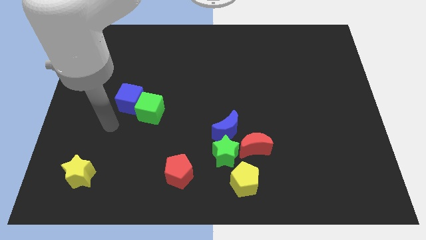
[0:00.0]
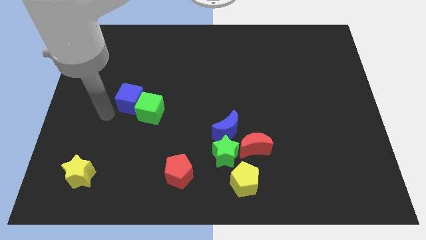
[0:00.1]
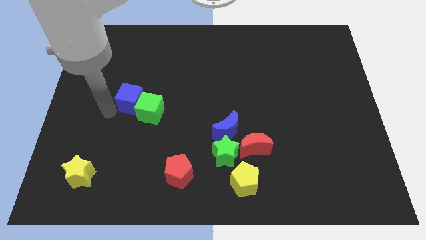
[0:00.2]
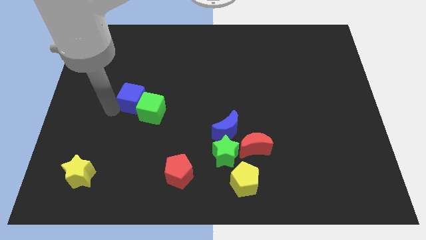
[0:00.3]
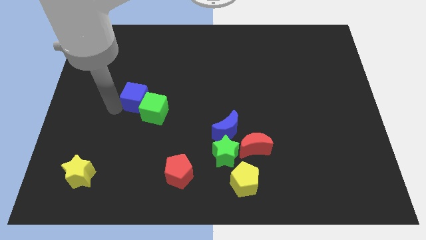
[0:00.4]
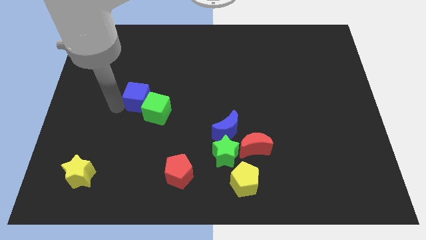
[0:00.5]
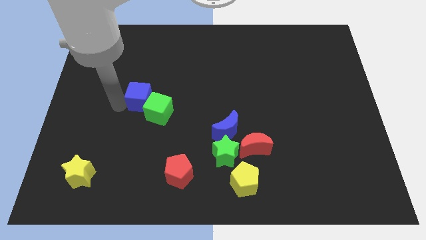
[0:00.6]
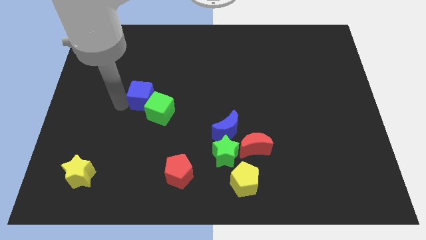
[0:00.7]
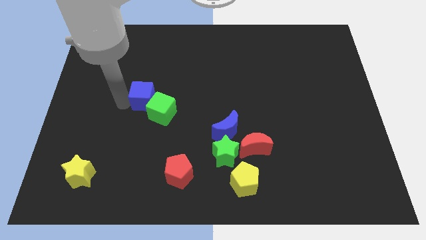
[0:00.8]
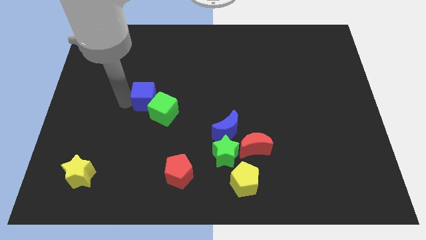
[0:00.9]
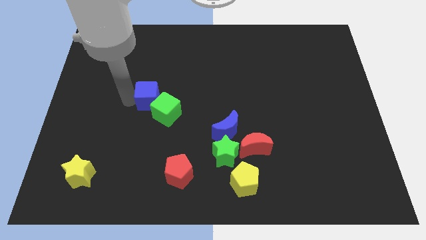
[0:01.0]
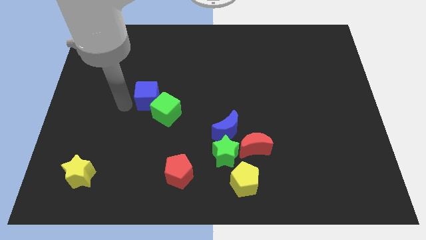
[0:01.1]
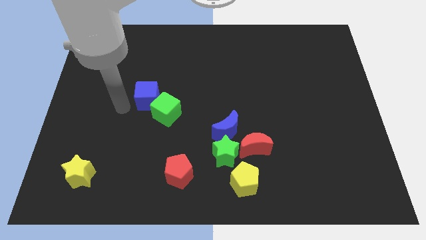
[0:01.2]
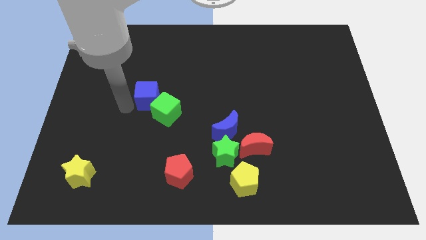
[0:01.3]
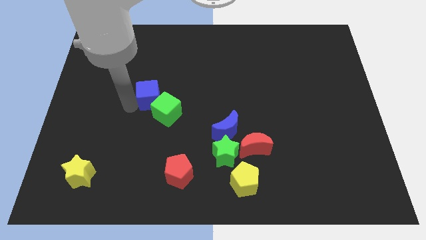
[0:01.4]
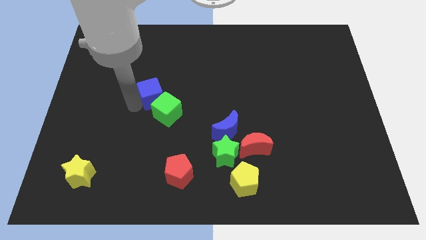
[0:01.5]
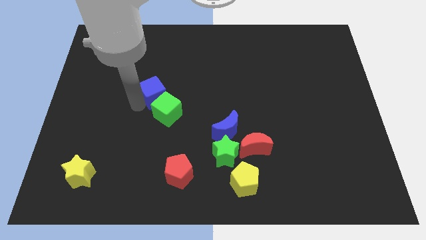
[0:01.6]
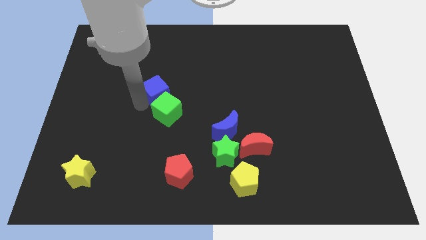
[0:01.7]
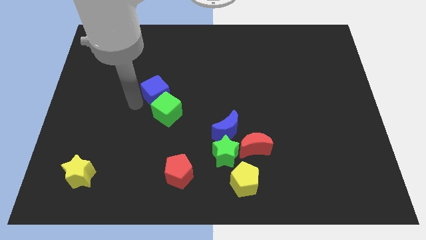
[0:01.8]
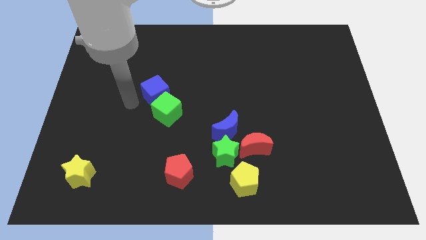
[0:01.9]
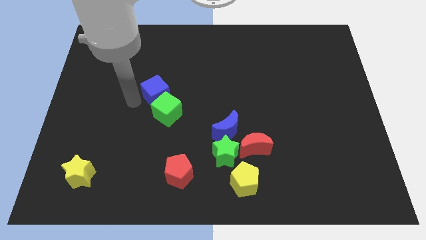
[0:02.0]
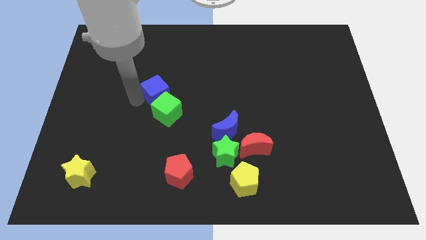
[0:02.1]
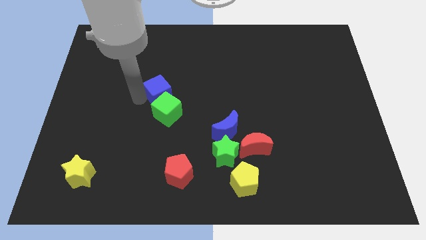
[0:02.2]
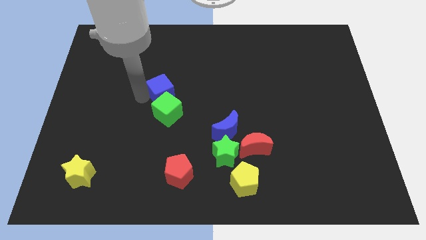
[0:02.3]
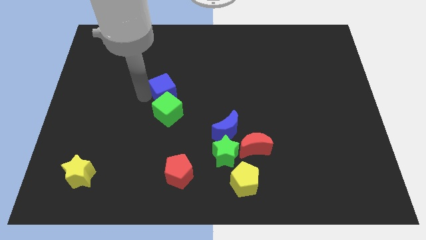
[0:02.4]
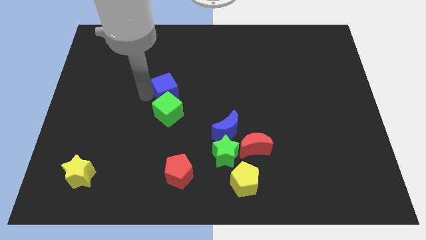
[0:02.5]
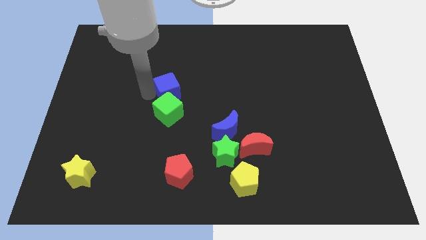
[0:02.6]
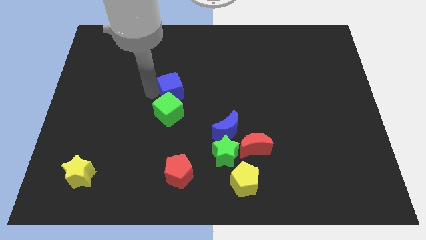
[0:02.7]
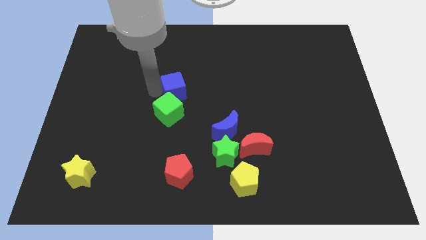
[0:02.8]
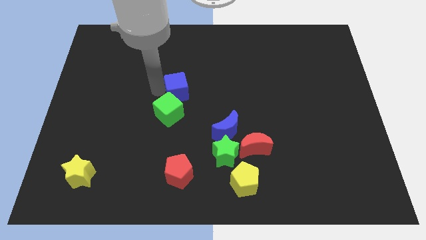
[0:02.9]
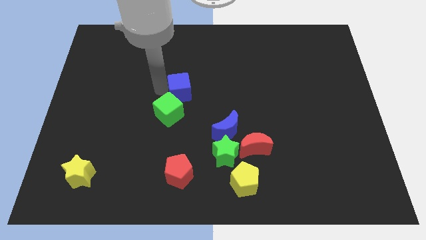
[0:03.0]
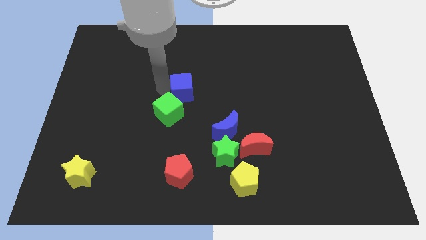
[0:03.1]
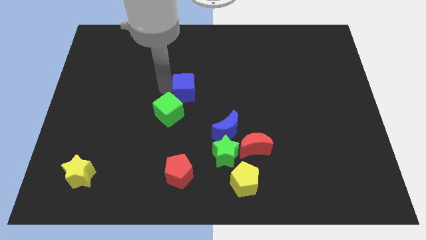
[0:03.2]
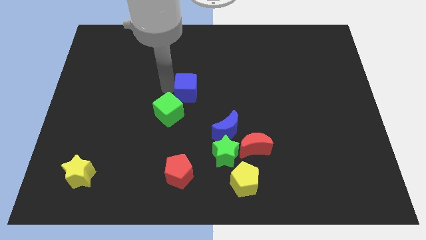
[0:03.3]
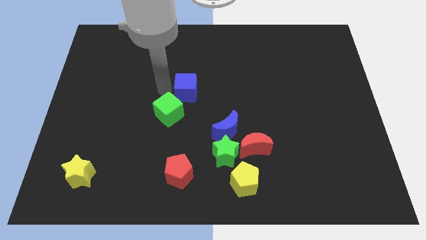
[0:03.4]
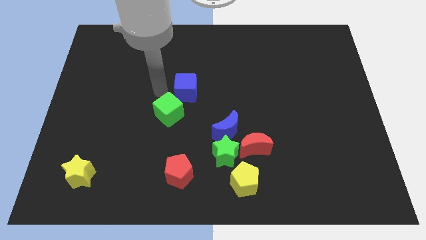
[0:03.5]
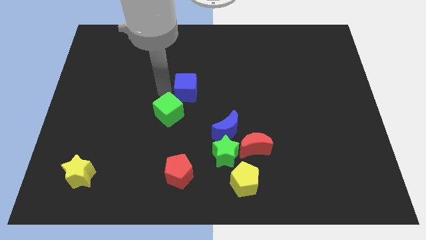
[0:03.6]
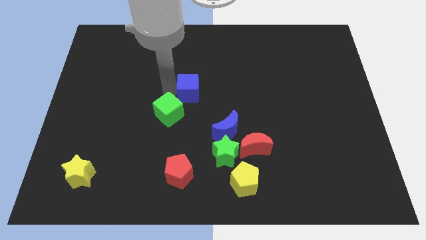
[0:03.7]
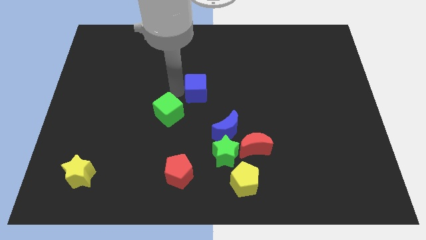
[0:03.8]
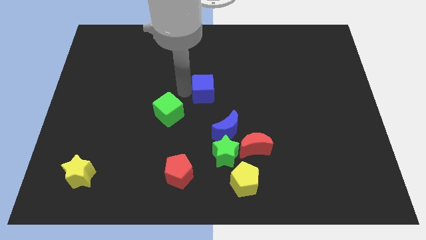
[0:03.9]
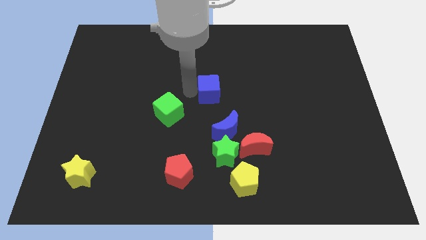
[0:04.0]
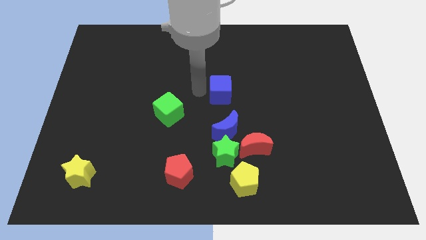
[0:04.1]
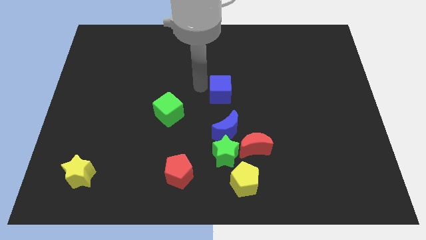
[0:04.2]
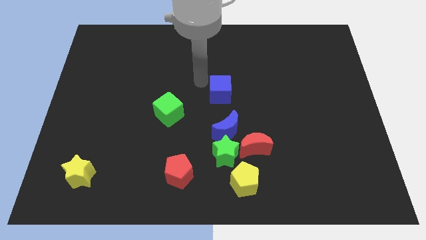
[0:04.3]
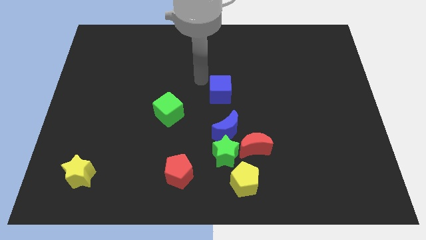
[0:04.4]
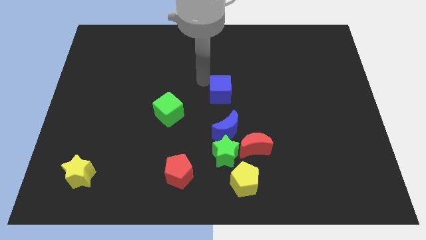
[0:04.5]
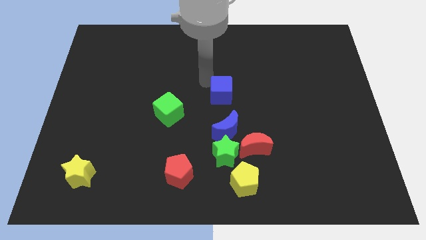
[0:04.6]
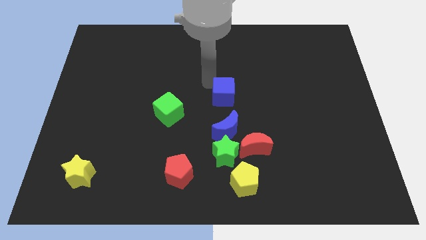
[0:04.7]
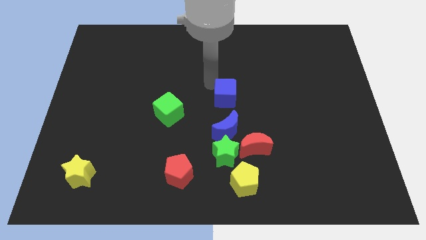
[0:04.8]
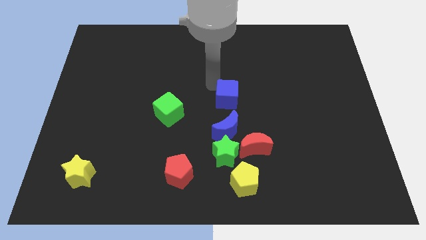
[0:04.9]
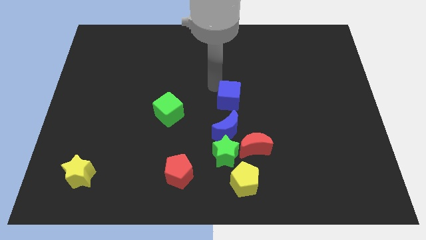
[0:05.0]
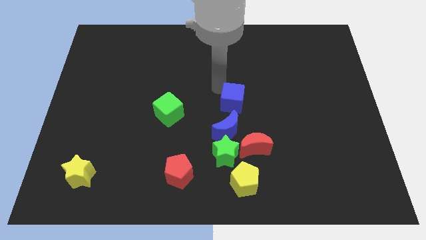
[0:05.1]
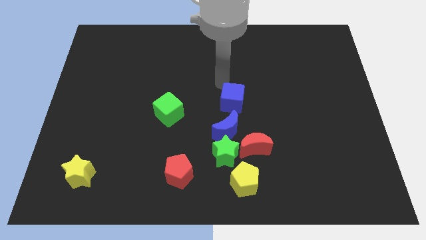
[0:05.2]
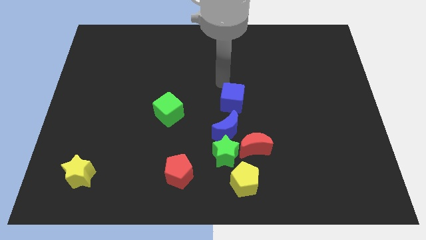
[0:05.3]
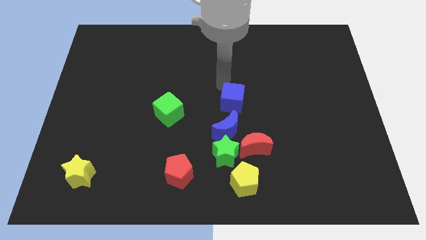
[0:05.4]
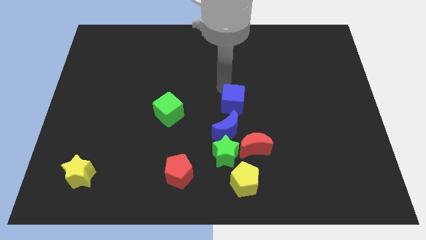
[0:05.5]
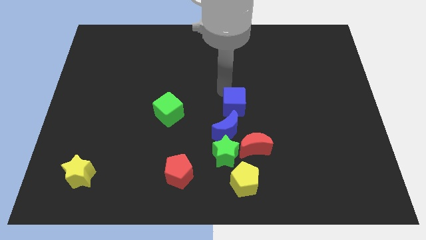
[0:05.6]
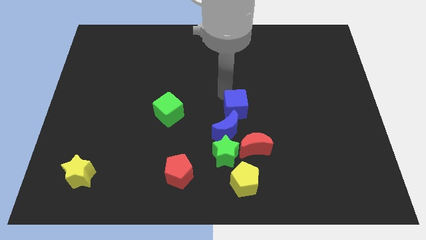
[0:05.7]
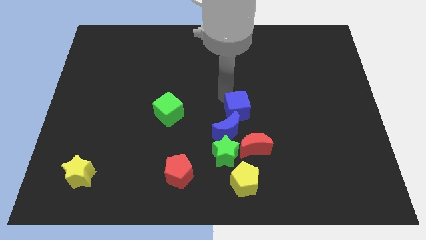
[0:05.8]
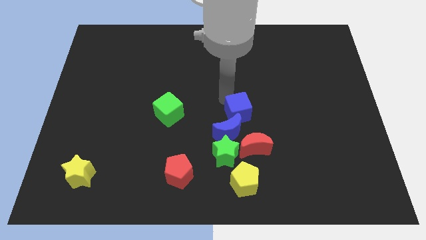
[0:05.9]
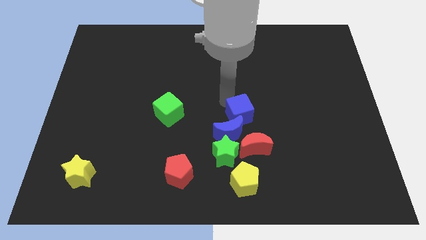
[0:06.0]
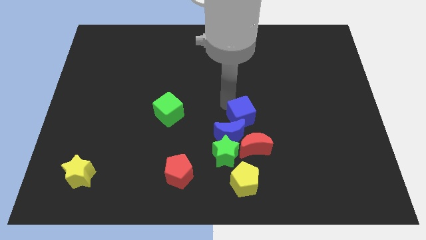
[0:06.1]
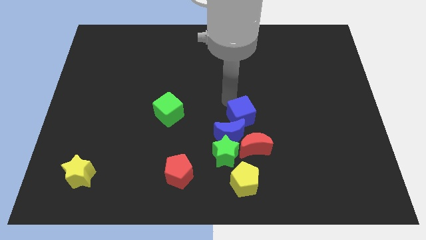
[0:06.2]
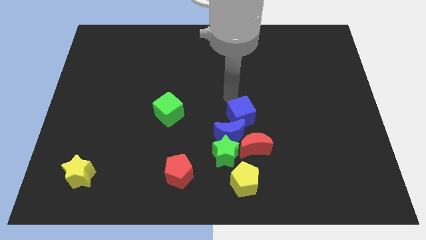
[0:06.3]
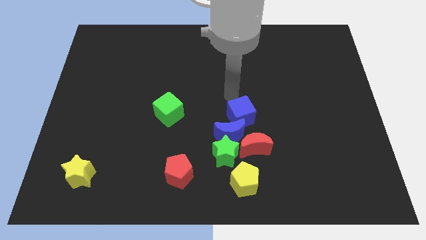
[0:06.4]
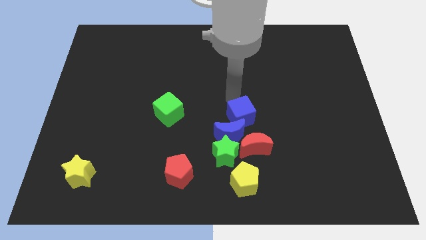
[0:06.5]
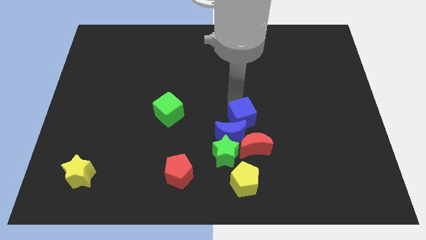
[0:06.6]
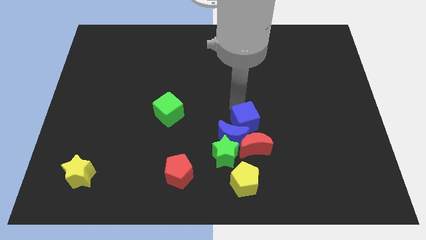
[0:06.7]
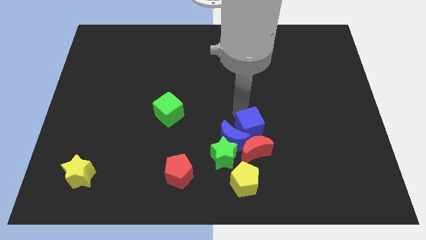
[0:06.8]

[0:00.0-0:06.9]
slide the blue cube to the red moon

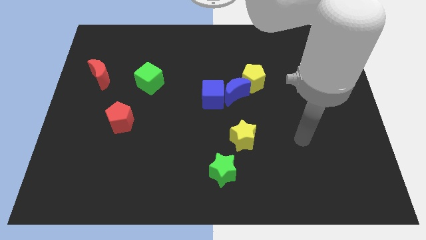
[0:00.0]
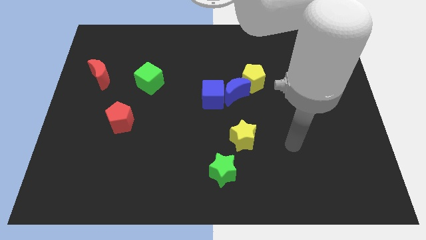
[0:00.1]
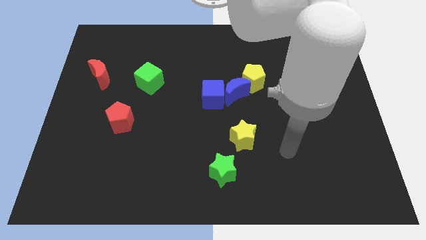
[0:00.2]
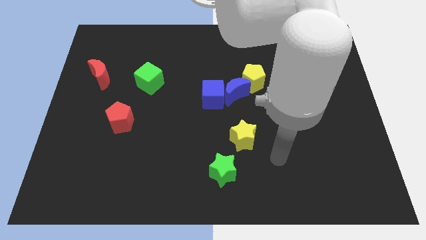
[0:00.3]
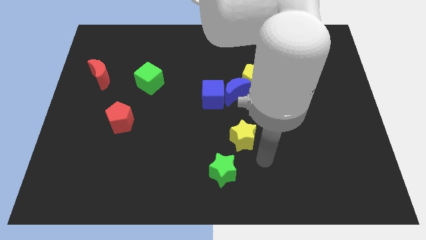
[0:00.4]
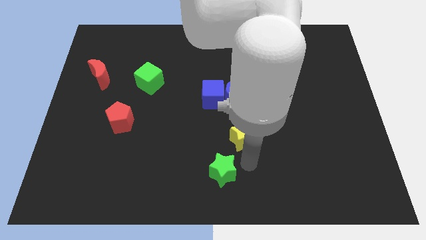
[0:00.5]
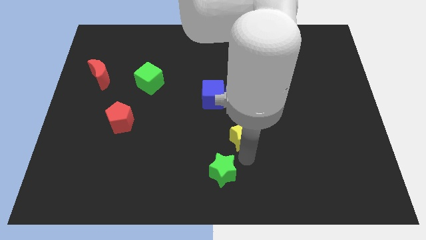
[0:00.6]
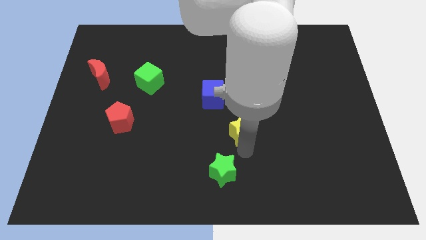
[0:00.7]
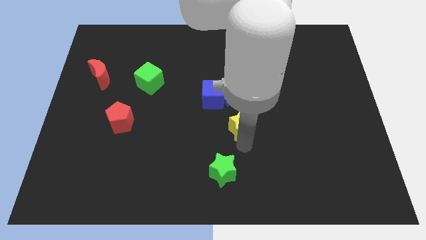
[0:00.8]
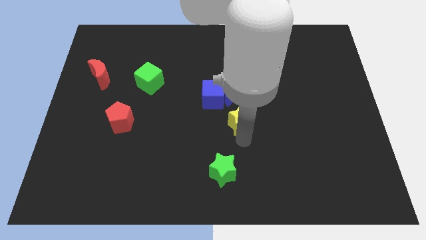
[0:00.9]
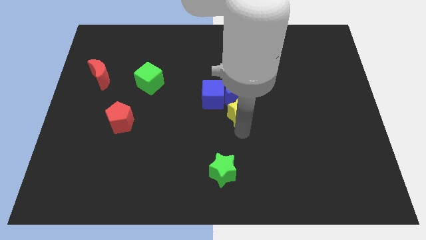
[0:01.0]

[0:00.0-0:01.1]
slide the yellow star towards the blue moon
